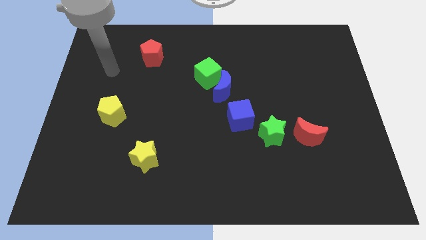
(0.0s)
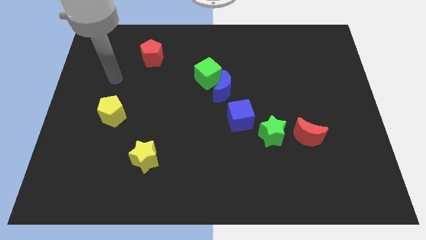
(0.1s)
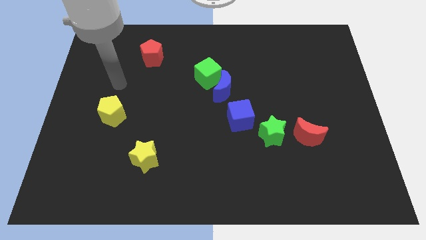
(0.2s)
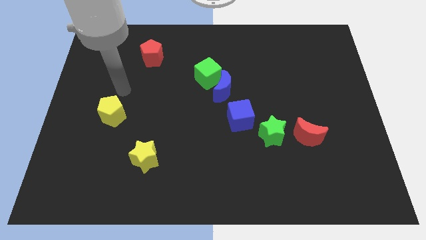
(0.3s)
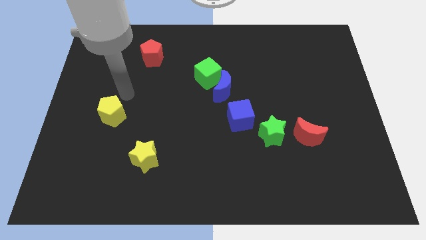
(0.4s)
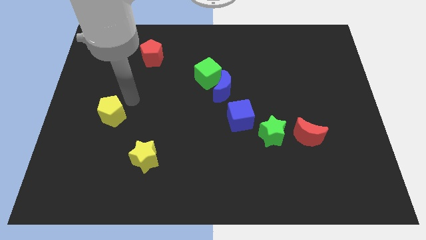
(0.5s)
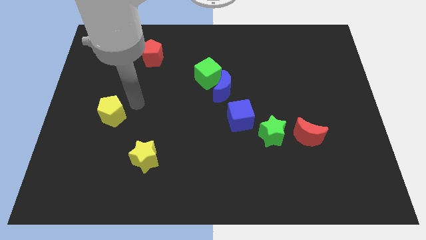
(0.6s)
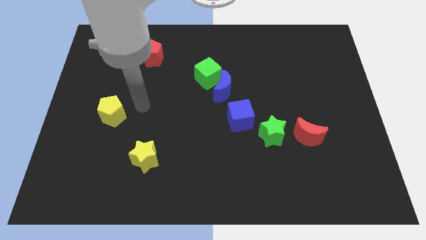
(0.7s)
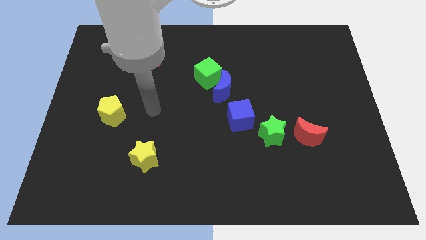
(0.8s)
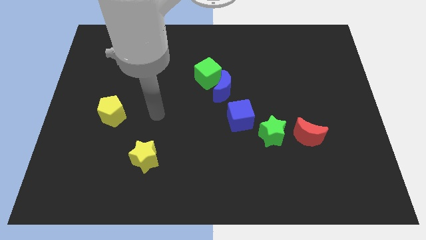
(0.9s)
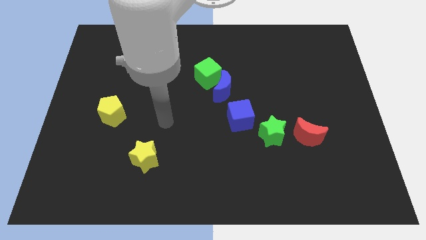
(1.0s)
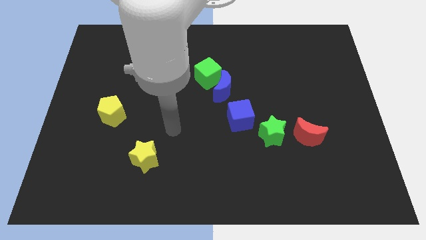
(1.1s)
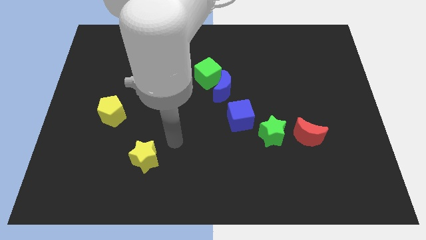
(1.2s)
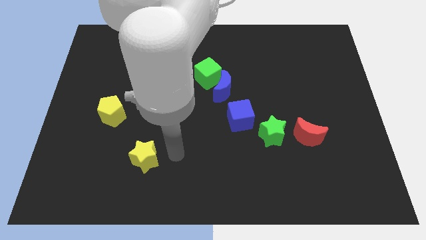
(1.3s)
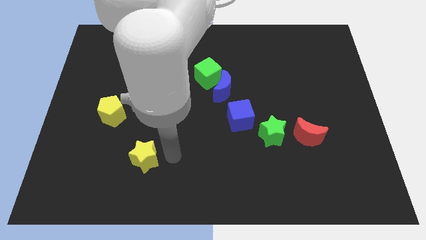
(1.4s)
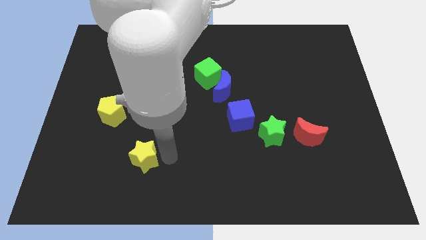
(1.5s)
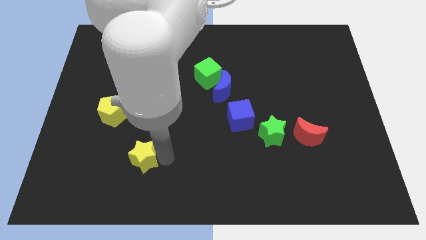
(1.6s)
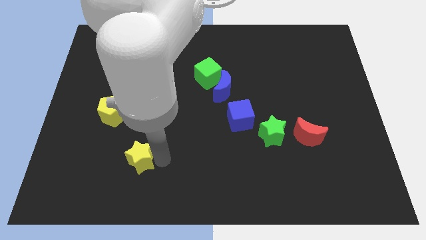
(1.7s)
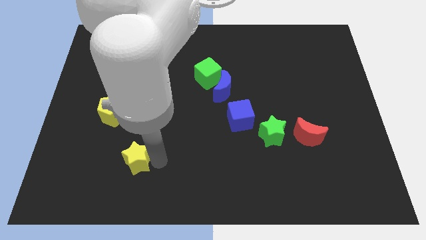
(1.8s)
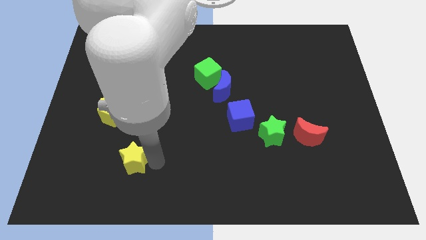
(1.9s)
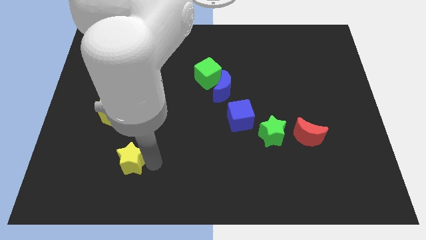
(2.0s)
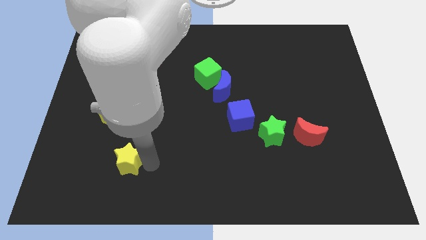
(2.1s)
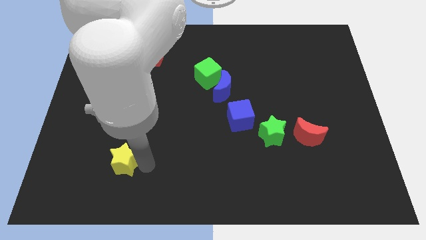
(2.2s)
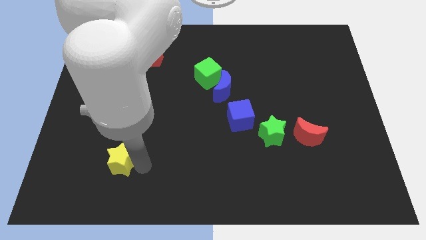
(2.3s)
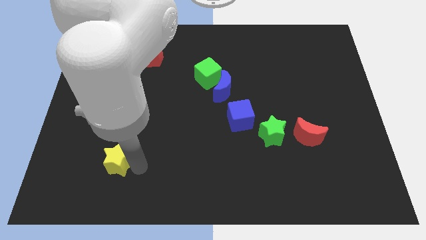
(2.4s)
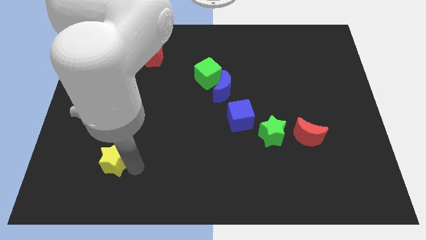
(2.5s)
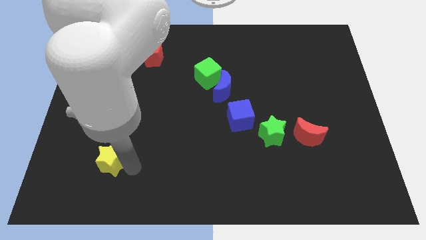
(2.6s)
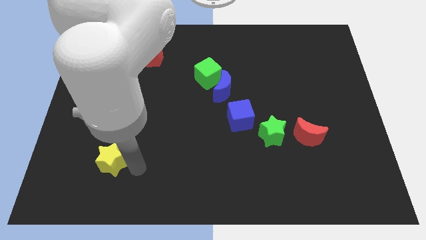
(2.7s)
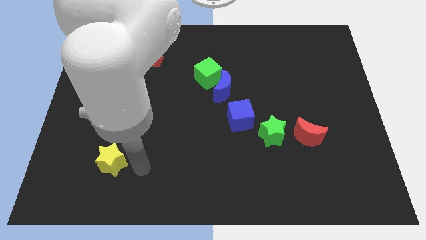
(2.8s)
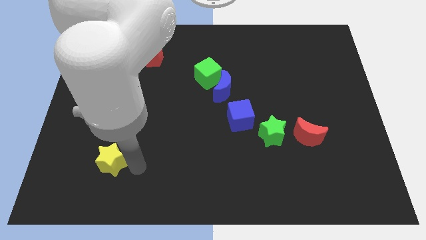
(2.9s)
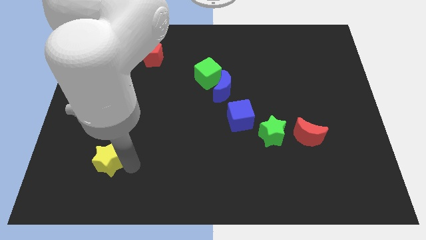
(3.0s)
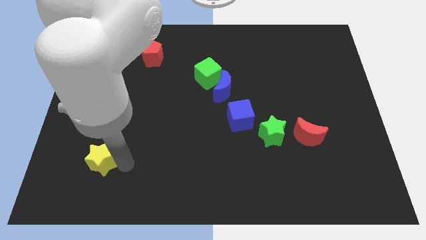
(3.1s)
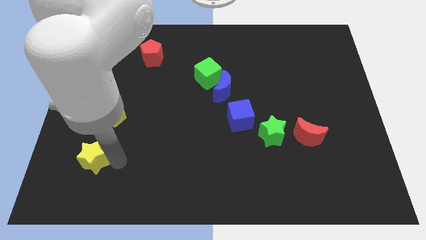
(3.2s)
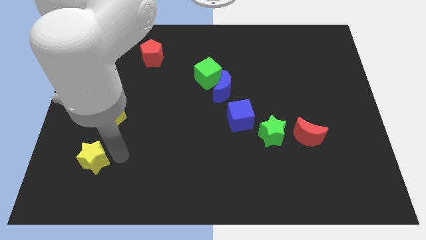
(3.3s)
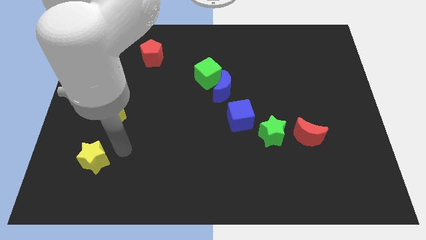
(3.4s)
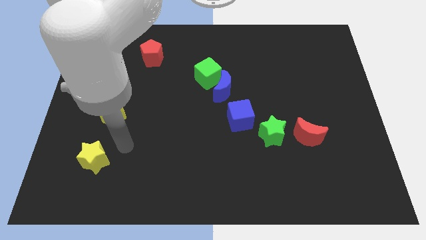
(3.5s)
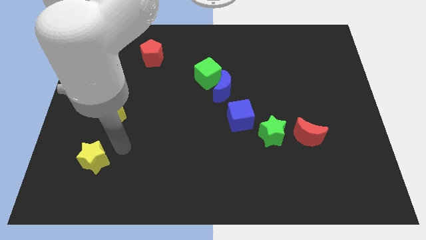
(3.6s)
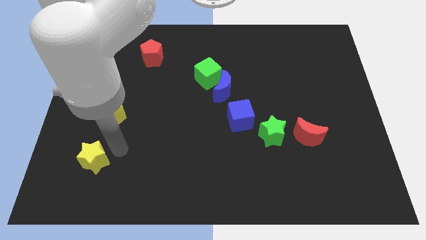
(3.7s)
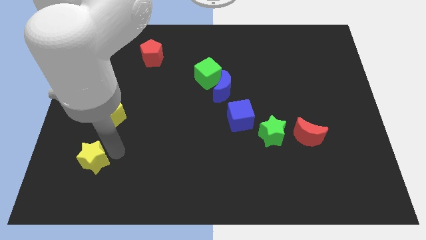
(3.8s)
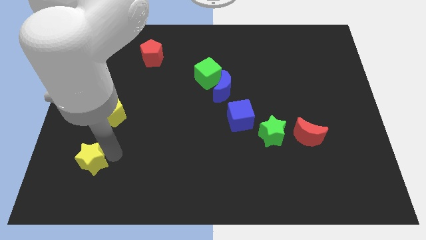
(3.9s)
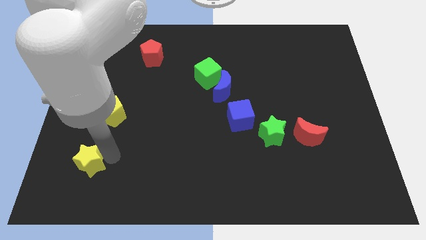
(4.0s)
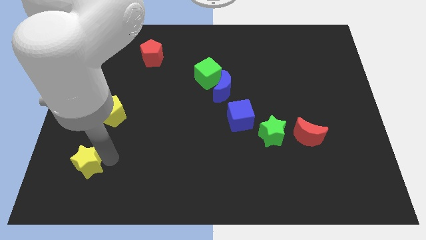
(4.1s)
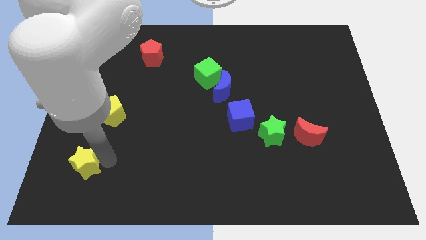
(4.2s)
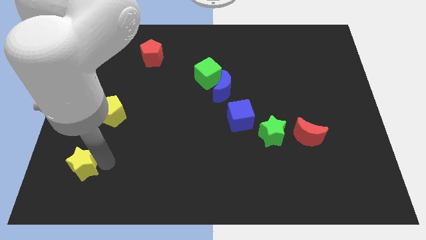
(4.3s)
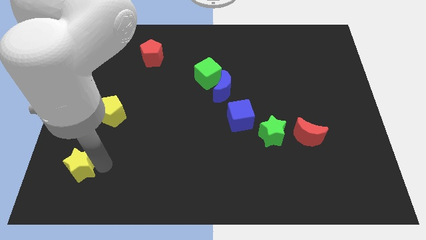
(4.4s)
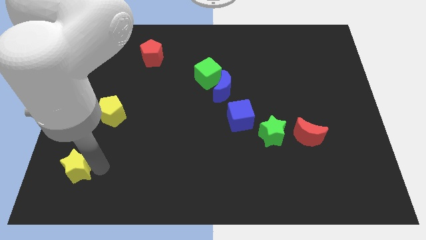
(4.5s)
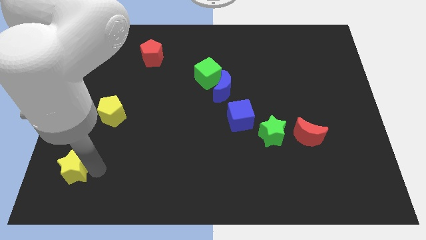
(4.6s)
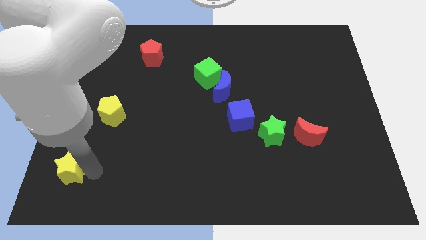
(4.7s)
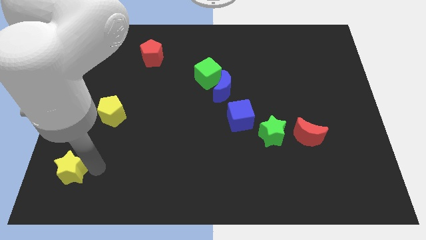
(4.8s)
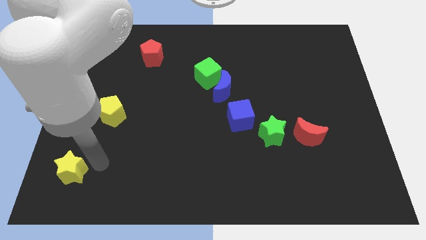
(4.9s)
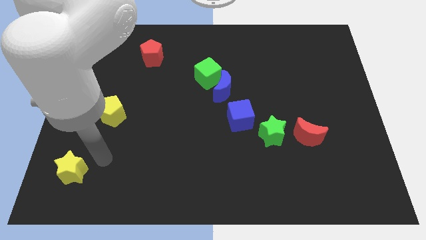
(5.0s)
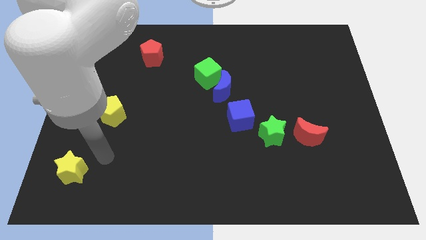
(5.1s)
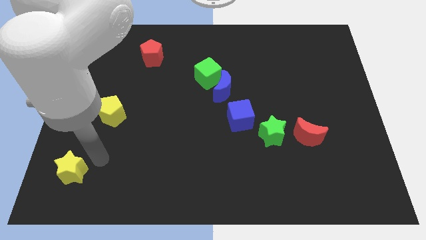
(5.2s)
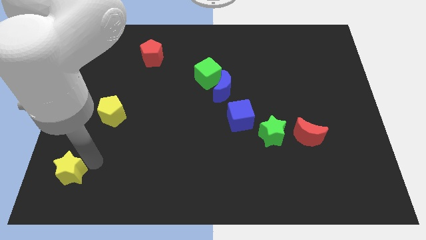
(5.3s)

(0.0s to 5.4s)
push the yellow star to the lower left corner
